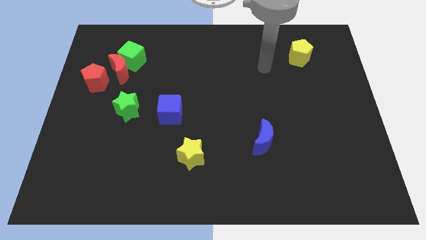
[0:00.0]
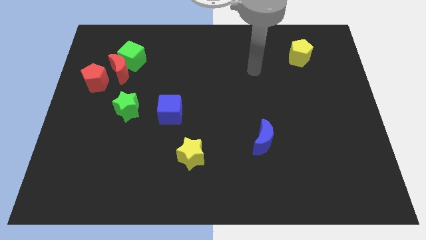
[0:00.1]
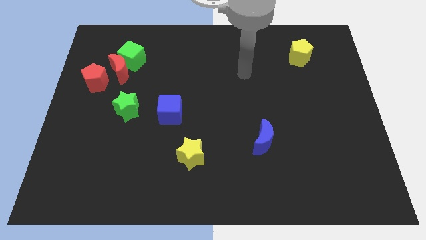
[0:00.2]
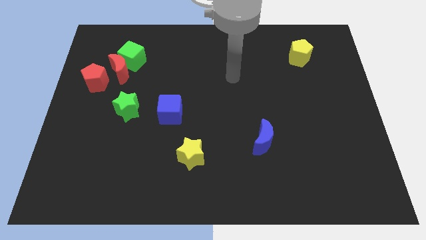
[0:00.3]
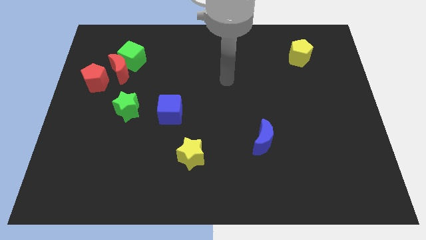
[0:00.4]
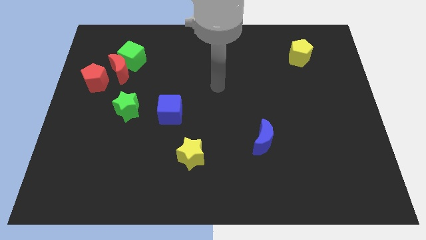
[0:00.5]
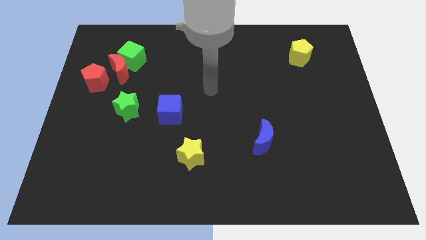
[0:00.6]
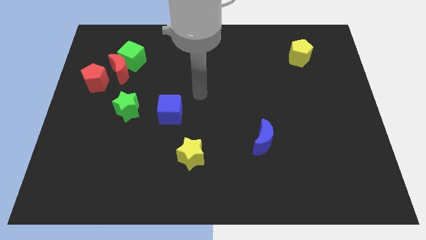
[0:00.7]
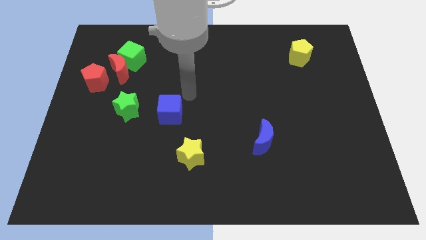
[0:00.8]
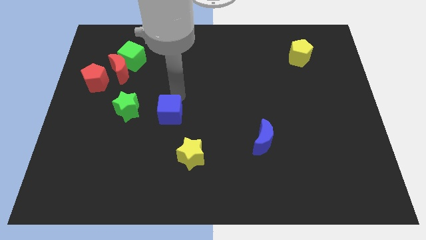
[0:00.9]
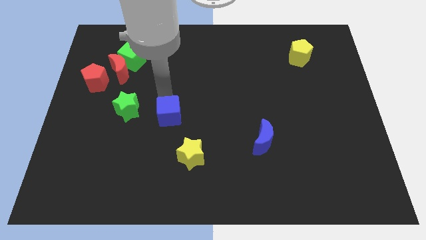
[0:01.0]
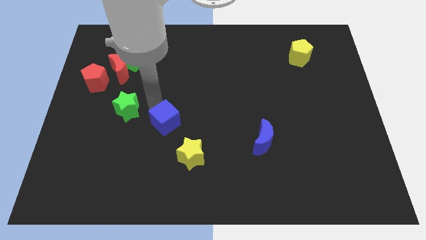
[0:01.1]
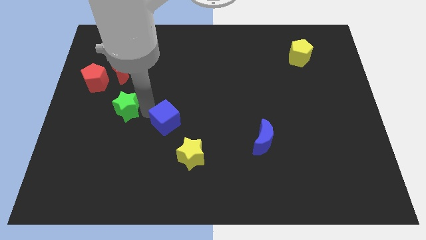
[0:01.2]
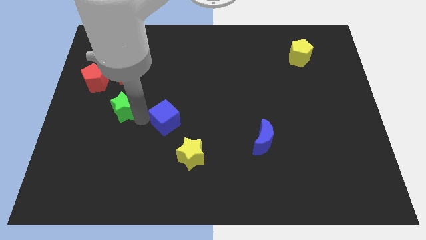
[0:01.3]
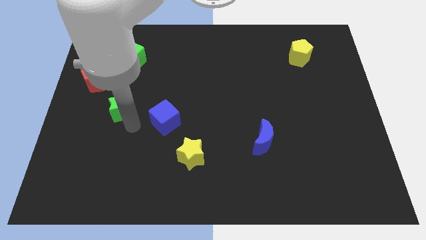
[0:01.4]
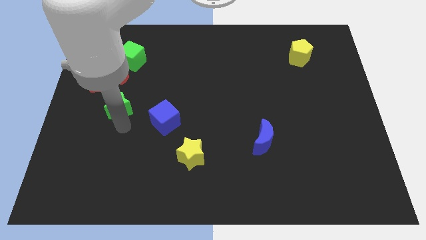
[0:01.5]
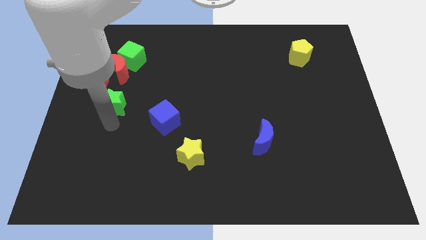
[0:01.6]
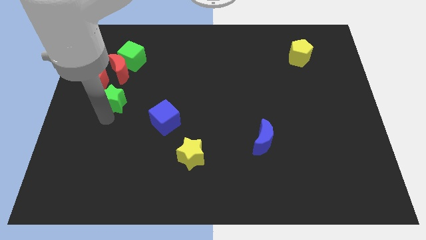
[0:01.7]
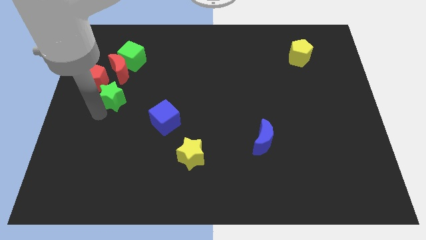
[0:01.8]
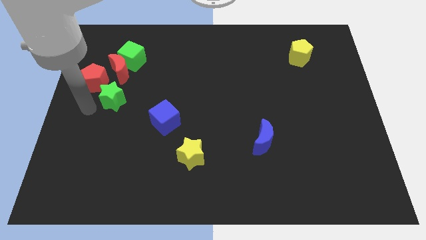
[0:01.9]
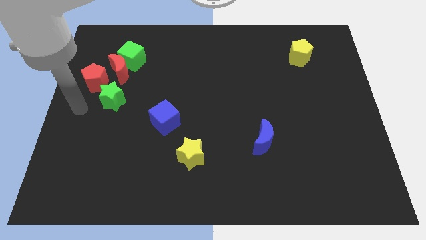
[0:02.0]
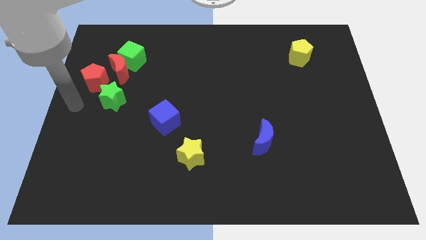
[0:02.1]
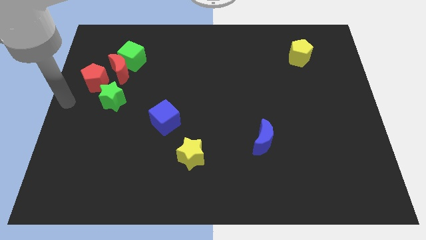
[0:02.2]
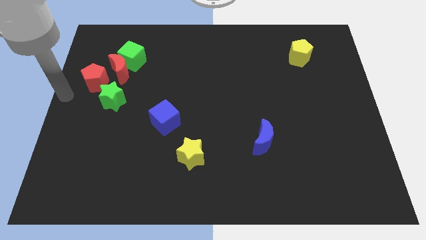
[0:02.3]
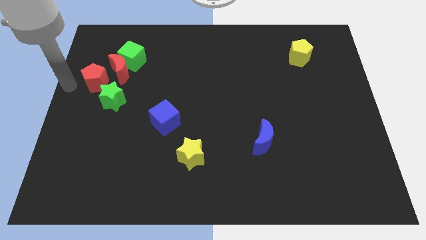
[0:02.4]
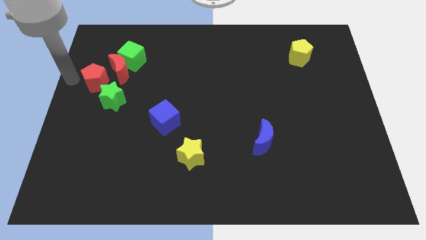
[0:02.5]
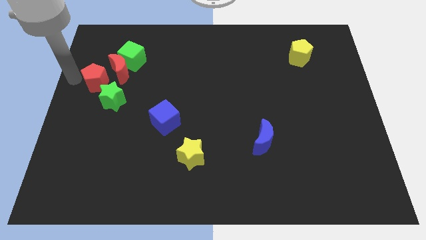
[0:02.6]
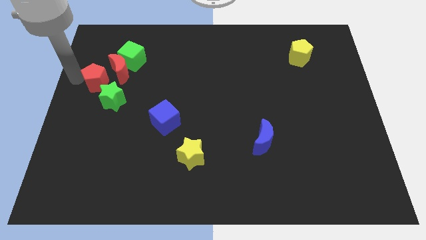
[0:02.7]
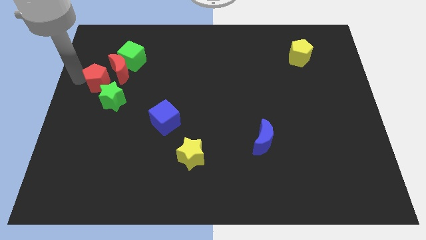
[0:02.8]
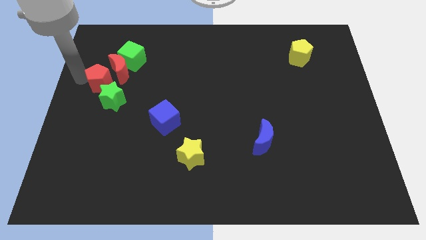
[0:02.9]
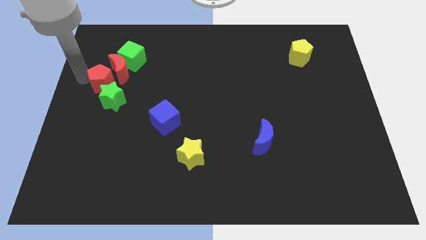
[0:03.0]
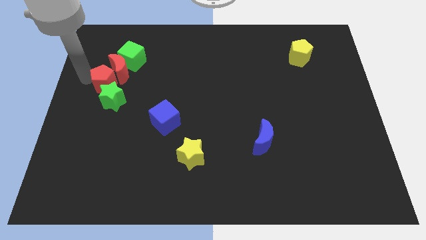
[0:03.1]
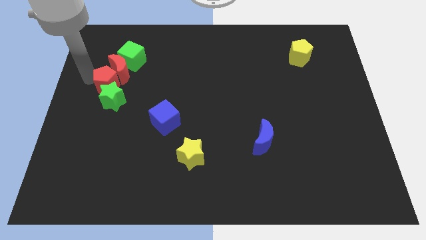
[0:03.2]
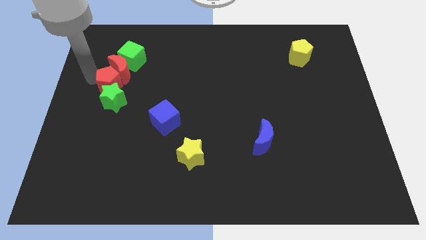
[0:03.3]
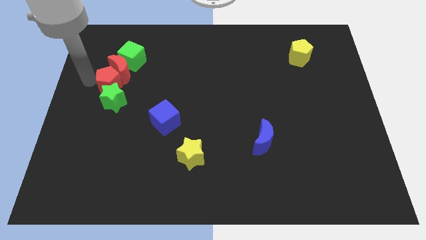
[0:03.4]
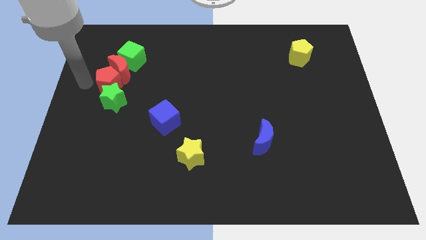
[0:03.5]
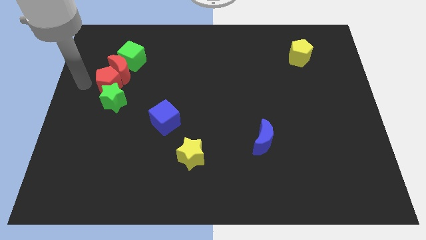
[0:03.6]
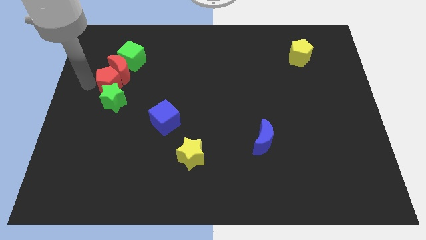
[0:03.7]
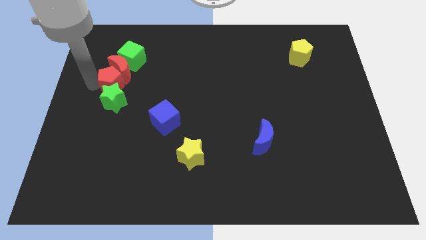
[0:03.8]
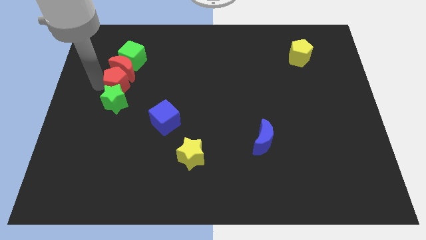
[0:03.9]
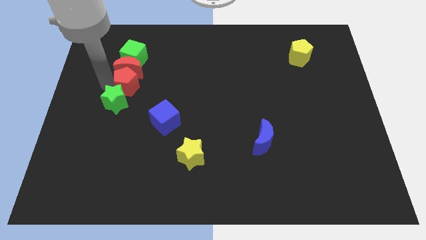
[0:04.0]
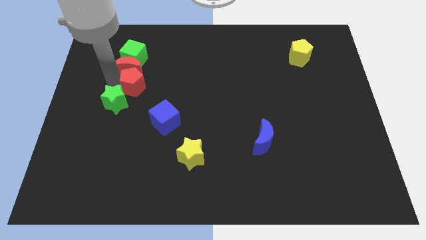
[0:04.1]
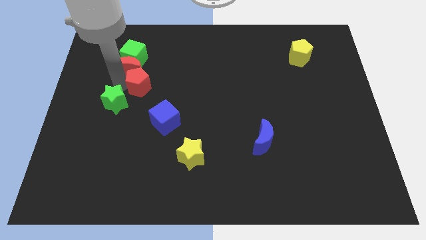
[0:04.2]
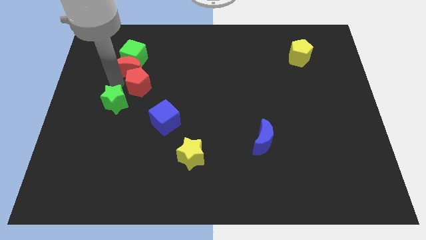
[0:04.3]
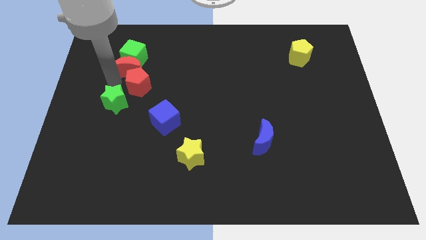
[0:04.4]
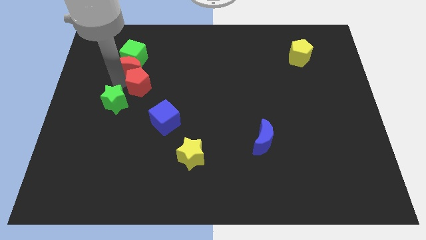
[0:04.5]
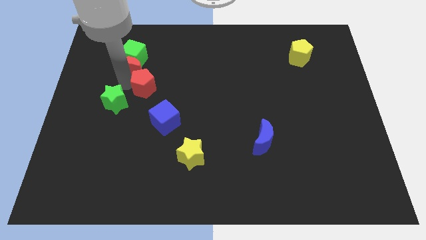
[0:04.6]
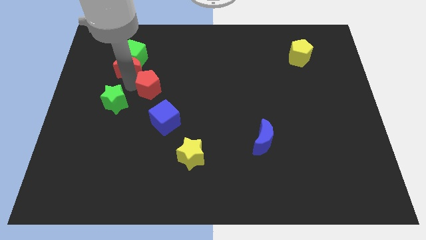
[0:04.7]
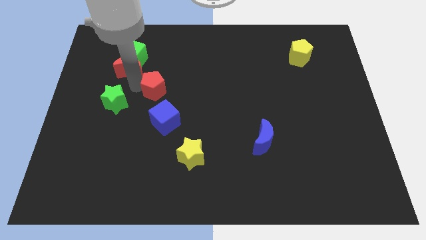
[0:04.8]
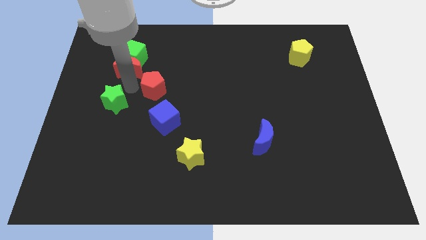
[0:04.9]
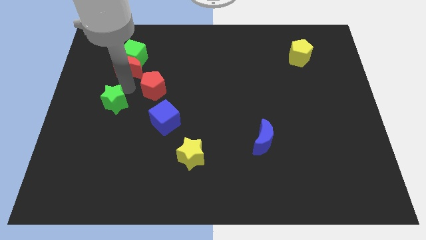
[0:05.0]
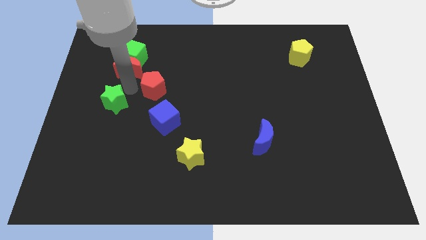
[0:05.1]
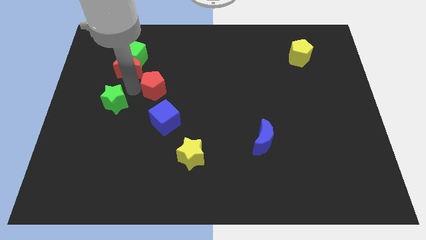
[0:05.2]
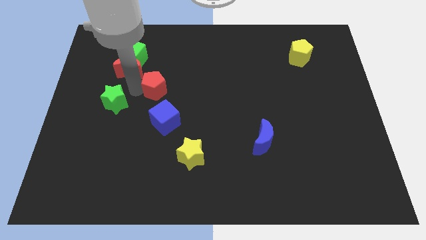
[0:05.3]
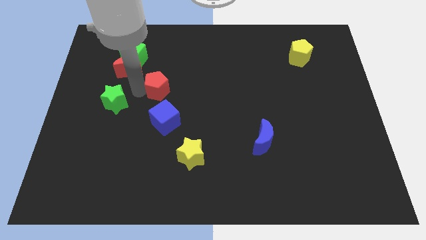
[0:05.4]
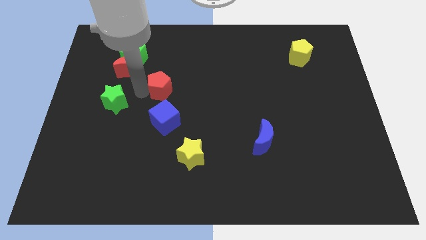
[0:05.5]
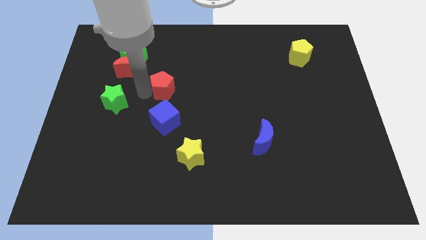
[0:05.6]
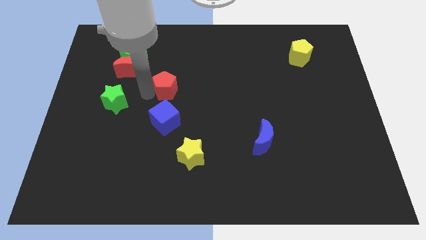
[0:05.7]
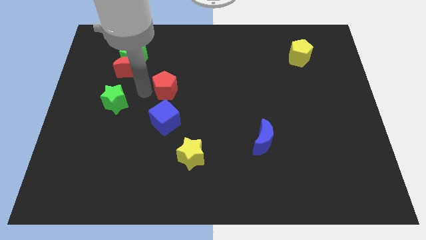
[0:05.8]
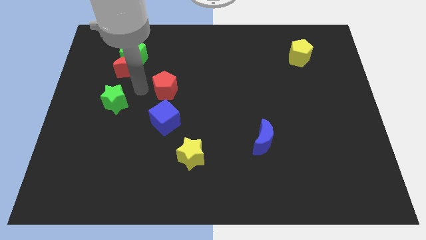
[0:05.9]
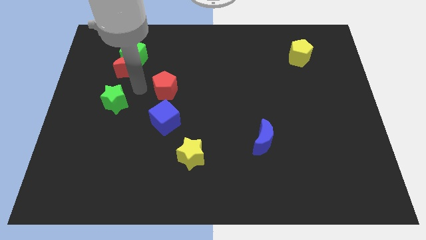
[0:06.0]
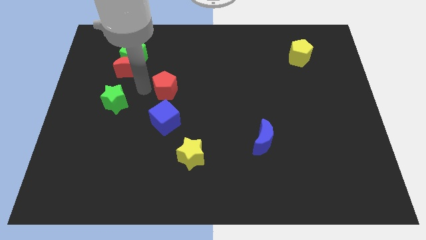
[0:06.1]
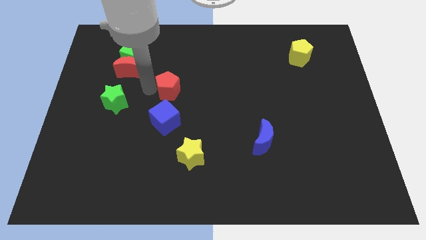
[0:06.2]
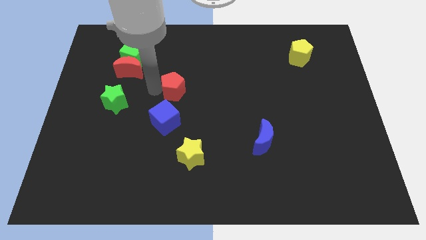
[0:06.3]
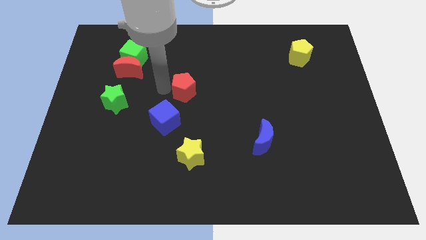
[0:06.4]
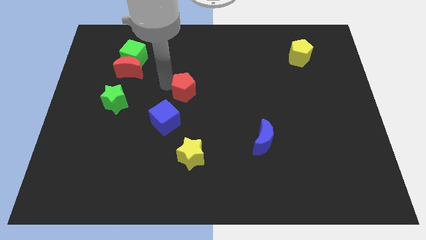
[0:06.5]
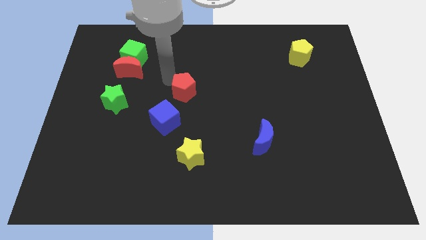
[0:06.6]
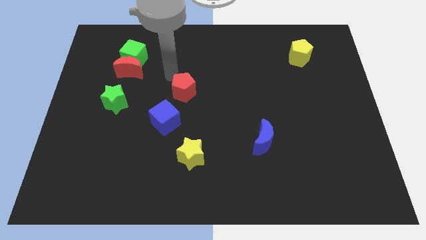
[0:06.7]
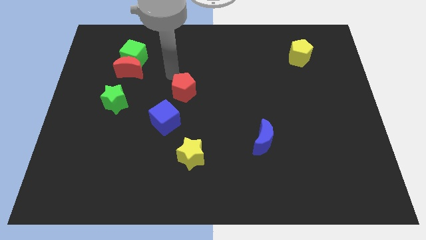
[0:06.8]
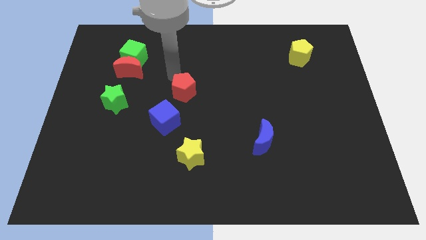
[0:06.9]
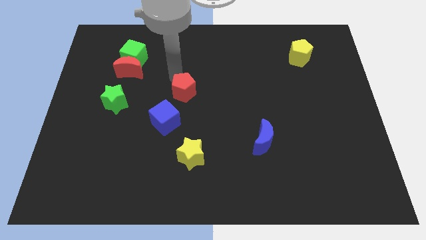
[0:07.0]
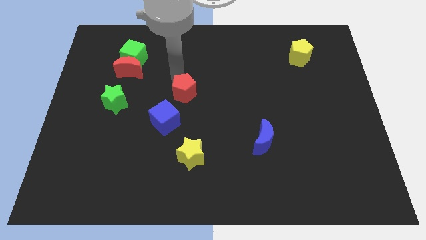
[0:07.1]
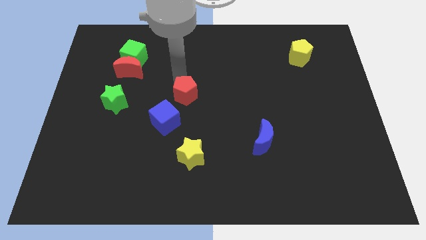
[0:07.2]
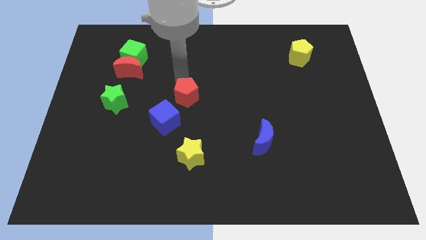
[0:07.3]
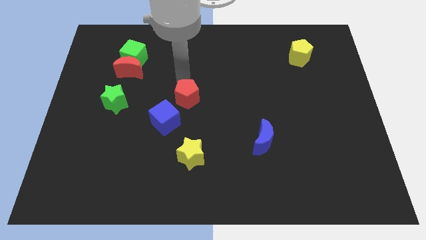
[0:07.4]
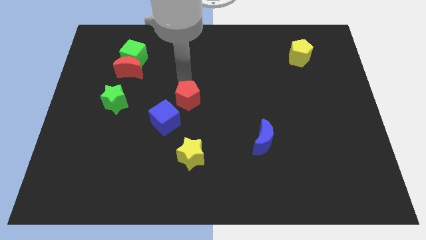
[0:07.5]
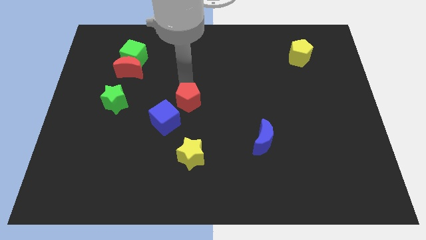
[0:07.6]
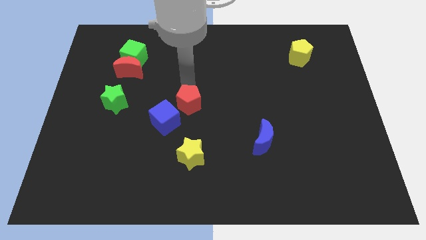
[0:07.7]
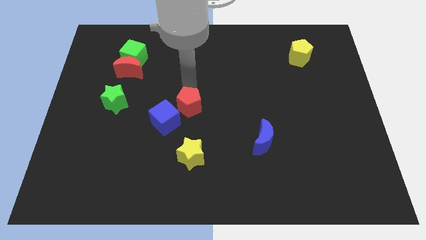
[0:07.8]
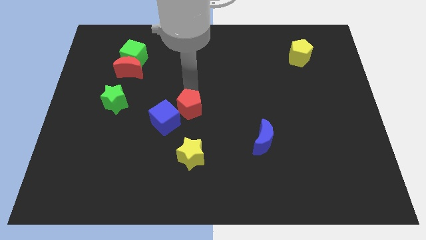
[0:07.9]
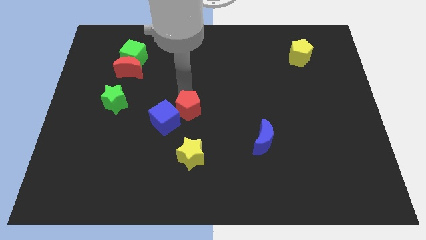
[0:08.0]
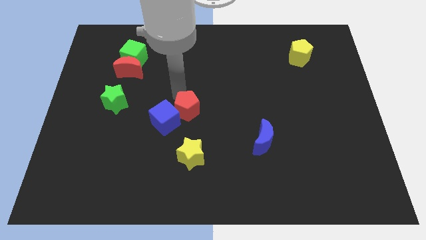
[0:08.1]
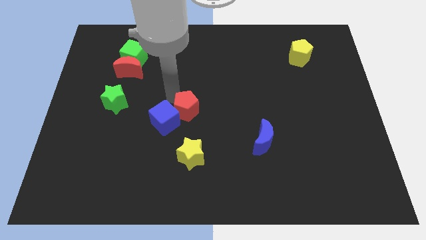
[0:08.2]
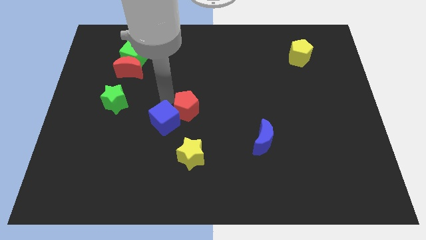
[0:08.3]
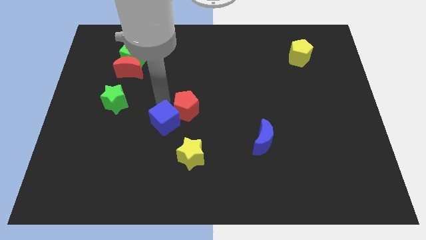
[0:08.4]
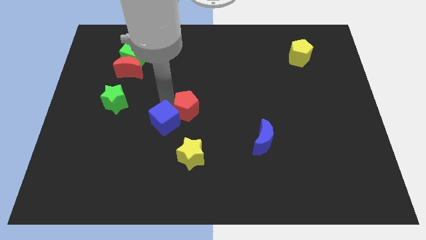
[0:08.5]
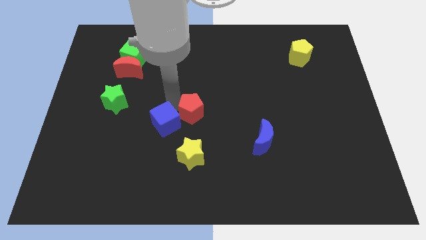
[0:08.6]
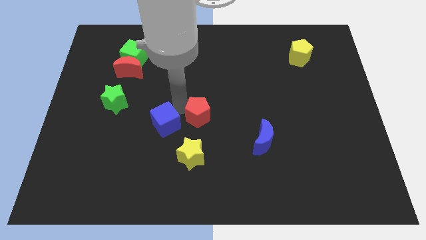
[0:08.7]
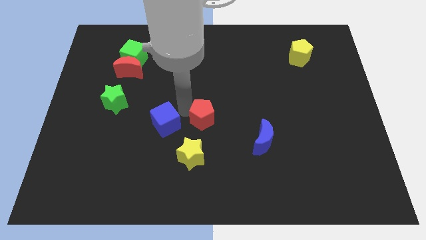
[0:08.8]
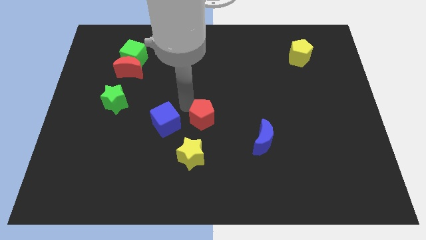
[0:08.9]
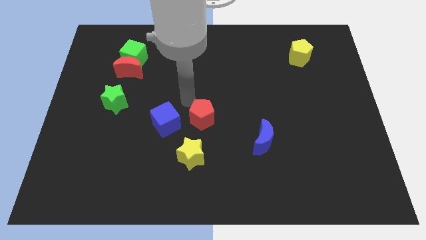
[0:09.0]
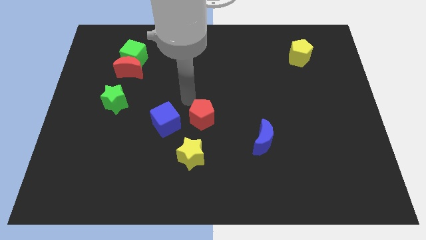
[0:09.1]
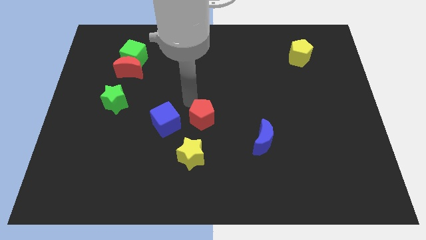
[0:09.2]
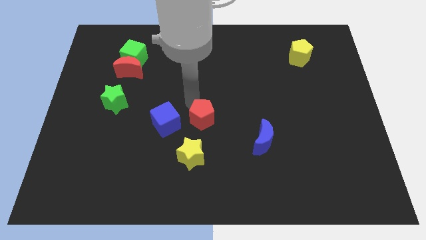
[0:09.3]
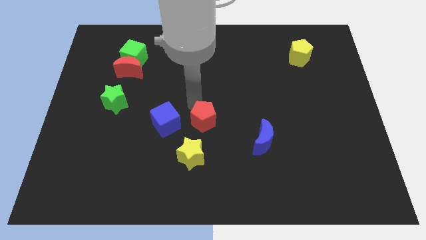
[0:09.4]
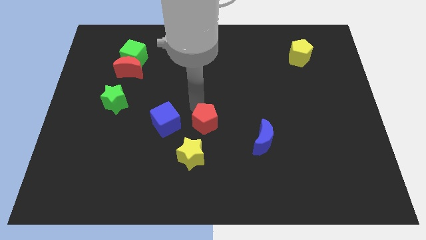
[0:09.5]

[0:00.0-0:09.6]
move the red pentagon diagonally up and to the right of the yellow star
